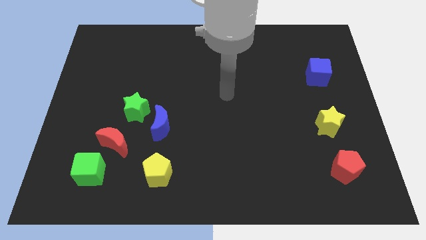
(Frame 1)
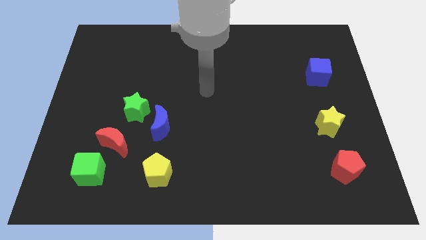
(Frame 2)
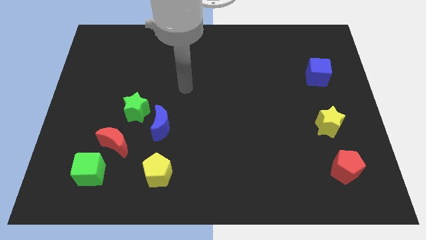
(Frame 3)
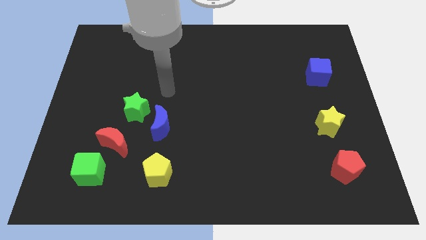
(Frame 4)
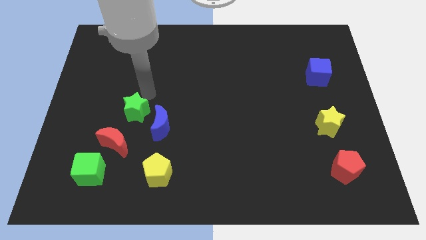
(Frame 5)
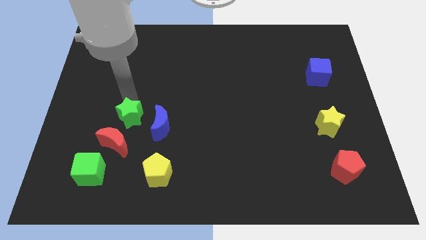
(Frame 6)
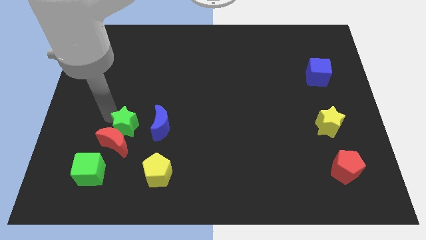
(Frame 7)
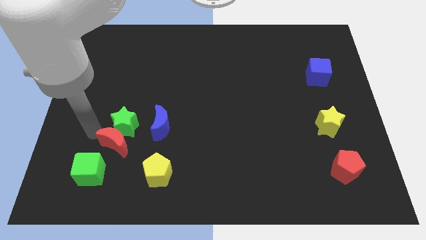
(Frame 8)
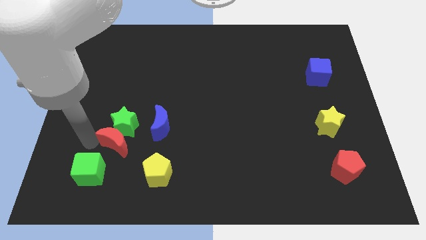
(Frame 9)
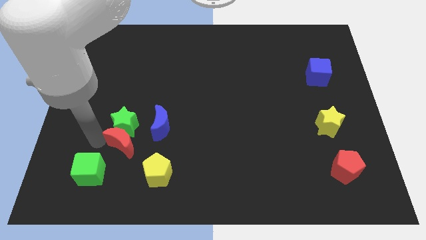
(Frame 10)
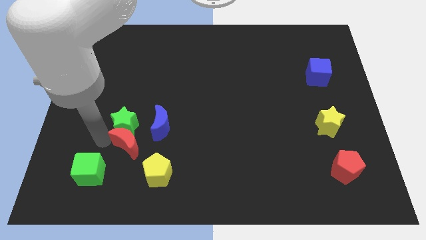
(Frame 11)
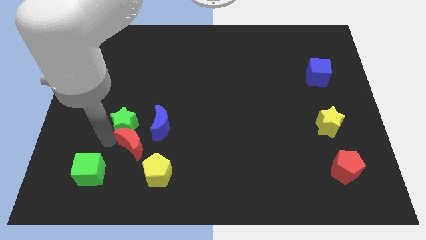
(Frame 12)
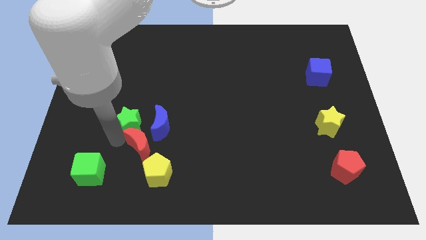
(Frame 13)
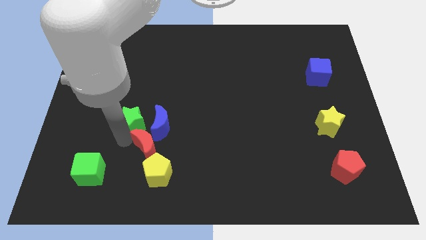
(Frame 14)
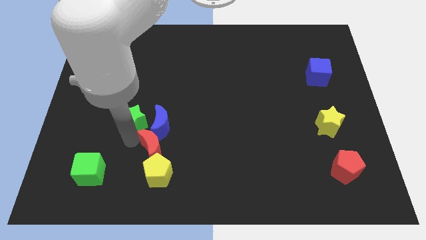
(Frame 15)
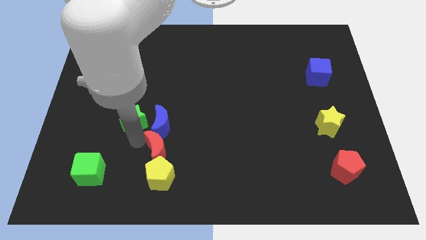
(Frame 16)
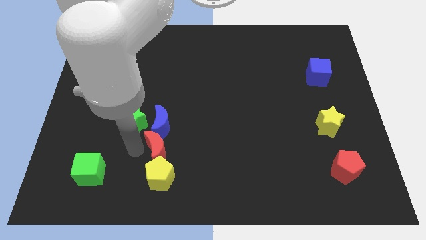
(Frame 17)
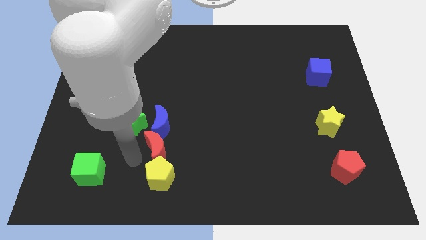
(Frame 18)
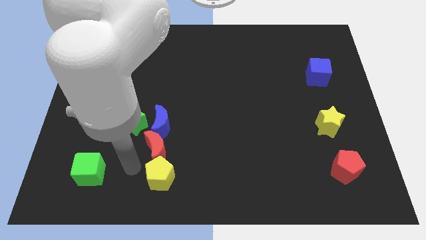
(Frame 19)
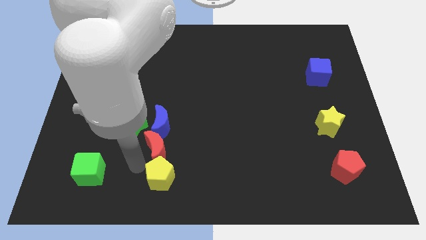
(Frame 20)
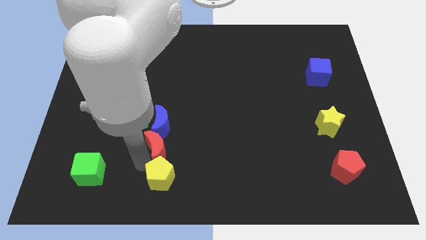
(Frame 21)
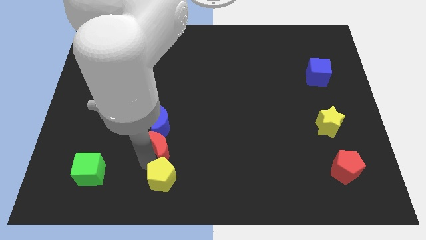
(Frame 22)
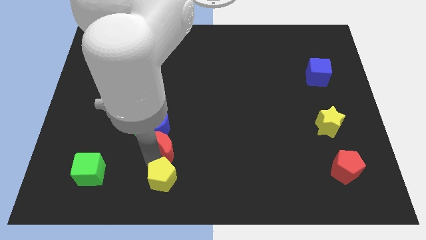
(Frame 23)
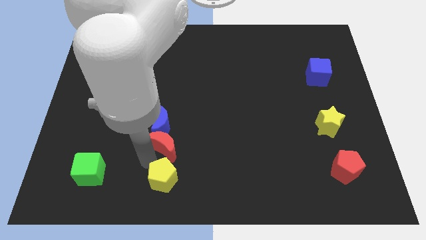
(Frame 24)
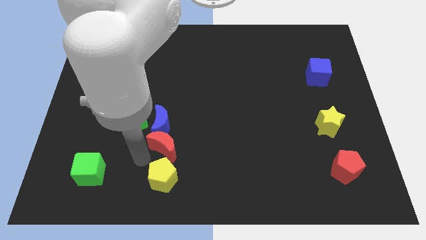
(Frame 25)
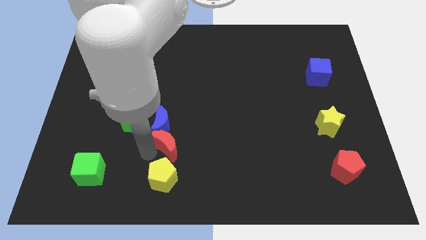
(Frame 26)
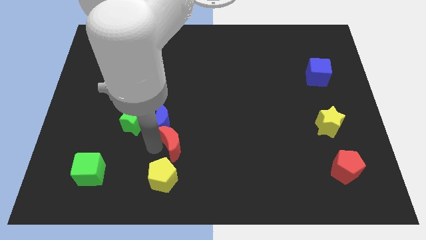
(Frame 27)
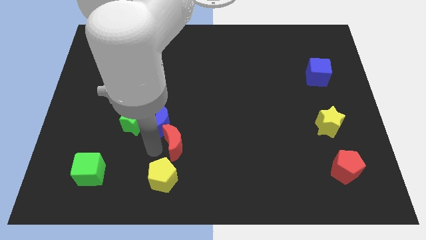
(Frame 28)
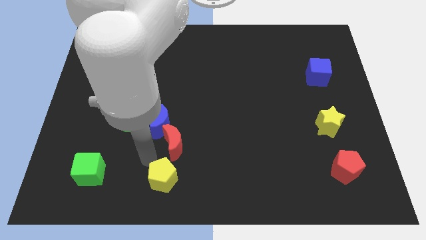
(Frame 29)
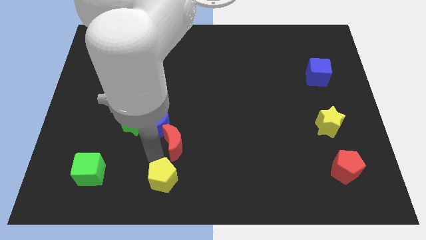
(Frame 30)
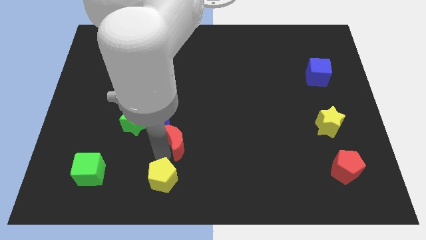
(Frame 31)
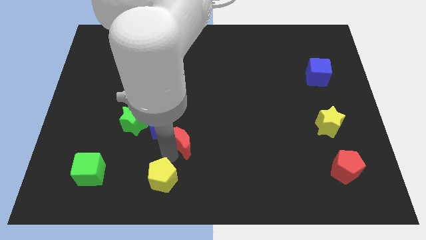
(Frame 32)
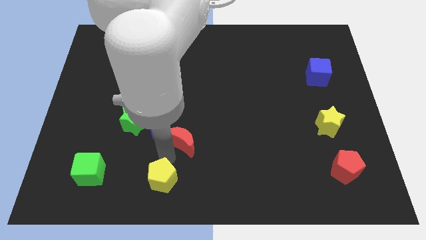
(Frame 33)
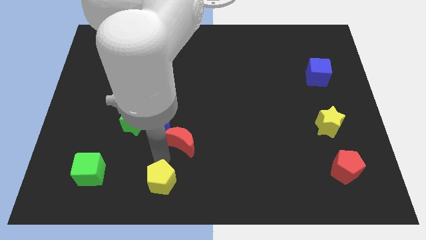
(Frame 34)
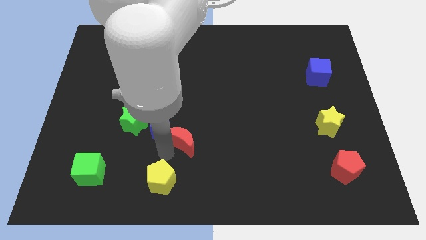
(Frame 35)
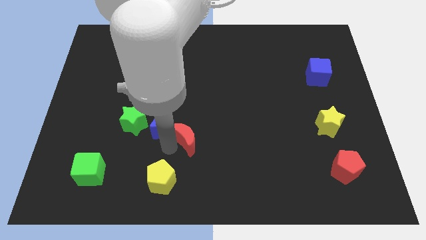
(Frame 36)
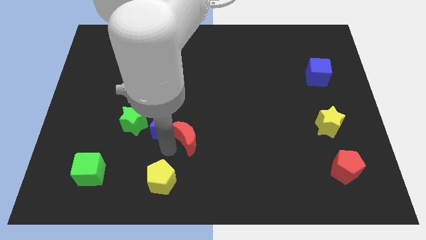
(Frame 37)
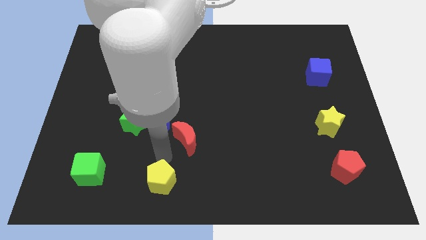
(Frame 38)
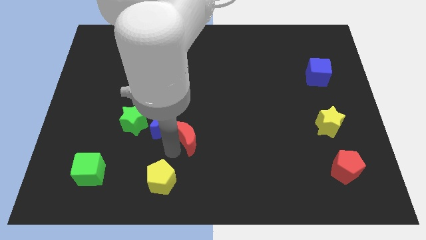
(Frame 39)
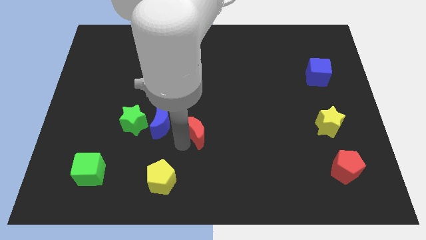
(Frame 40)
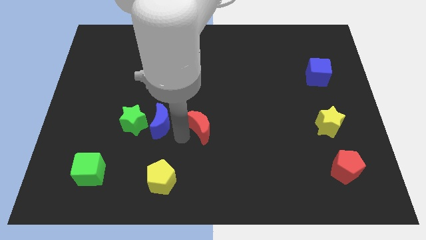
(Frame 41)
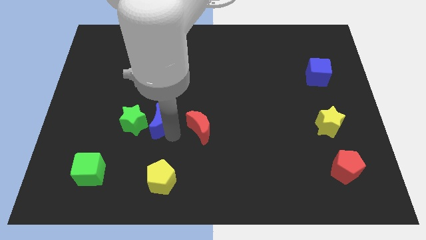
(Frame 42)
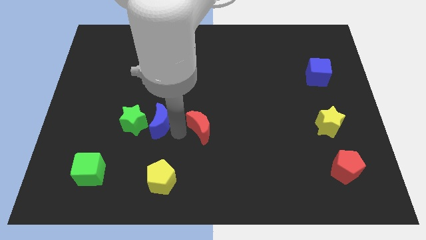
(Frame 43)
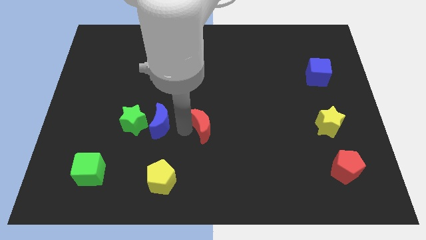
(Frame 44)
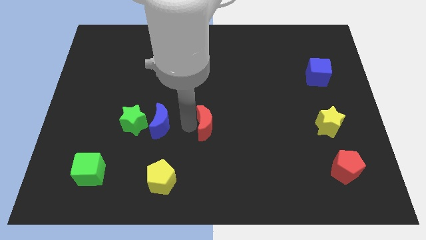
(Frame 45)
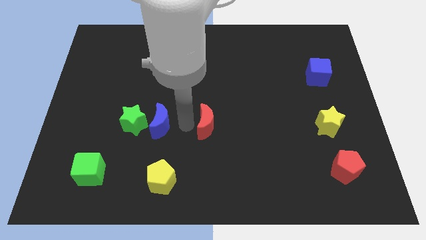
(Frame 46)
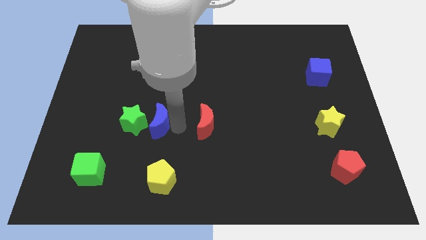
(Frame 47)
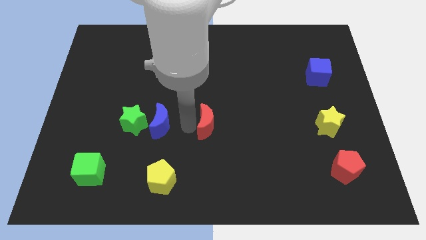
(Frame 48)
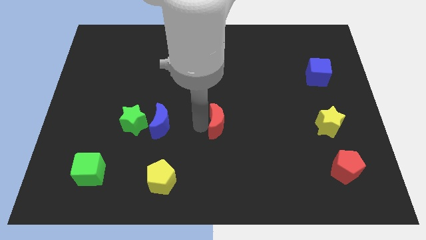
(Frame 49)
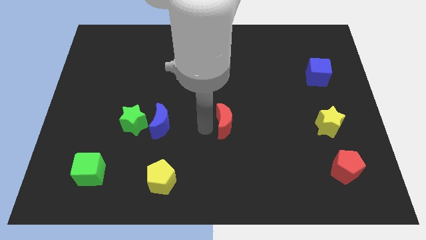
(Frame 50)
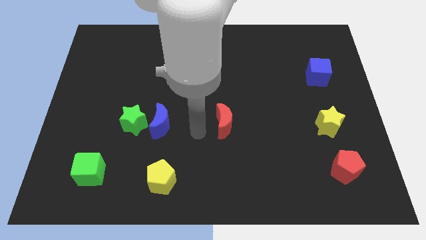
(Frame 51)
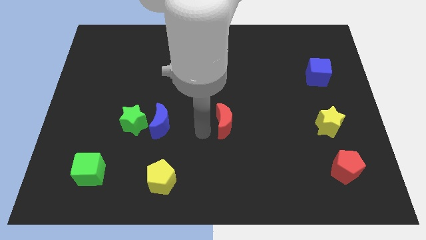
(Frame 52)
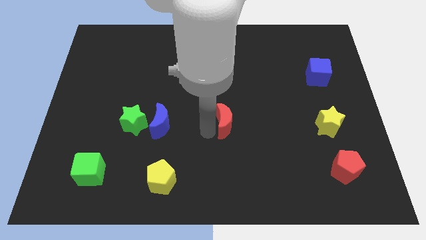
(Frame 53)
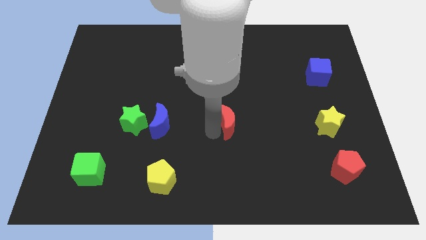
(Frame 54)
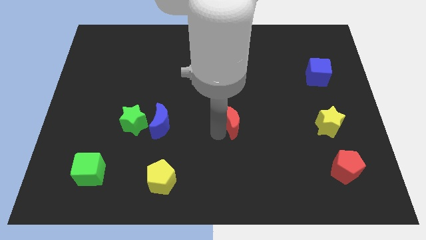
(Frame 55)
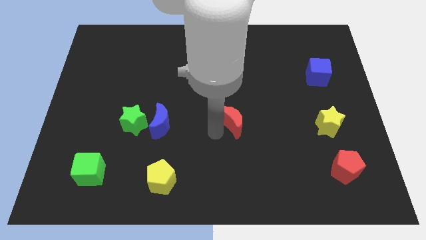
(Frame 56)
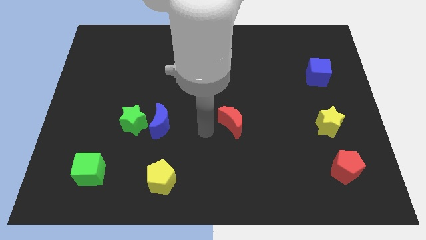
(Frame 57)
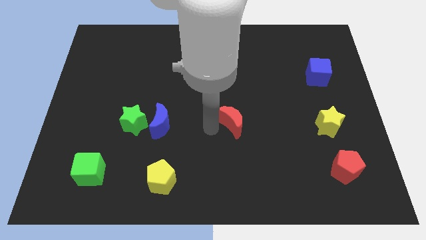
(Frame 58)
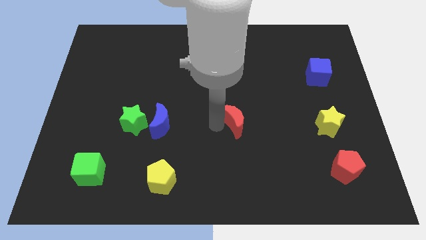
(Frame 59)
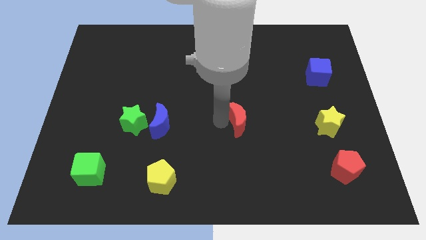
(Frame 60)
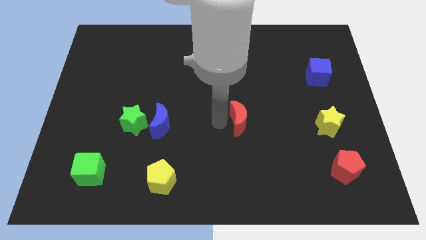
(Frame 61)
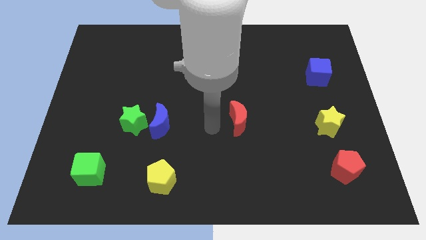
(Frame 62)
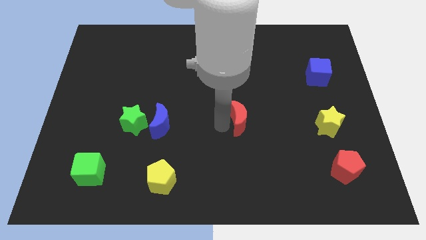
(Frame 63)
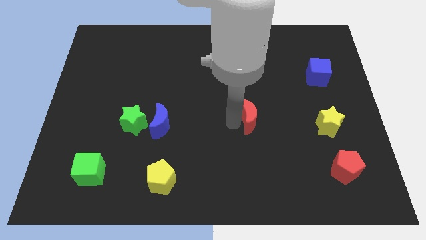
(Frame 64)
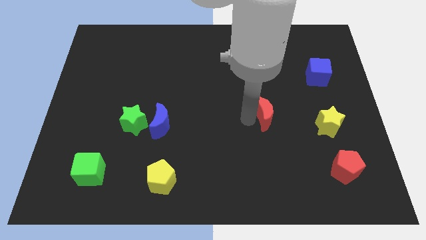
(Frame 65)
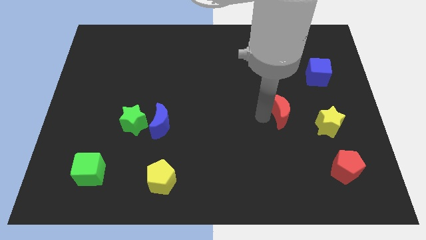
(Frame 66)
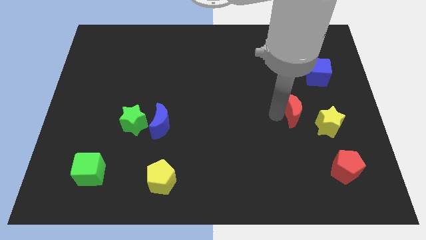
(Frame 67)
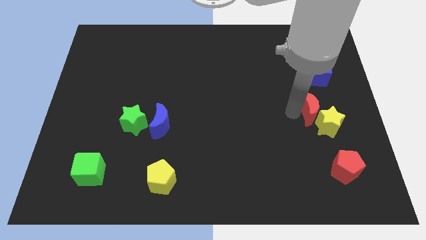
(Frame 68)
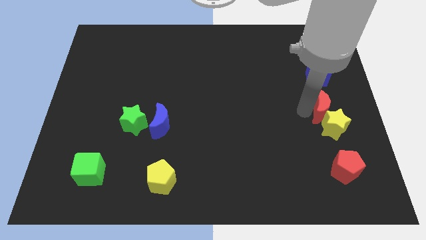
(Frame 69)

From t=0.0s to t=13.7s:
move the red moon to the top of the red pentagon

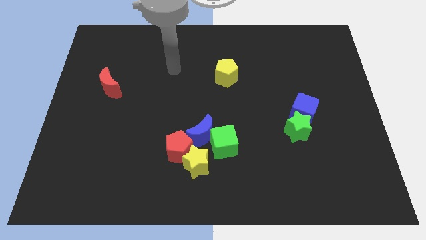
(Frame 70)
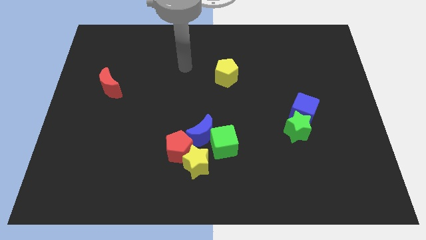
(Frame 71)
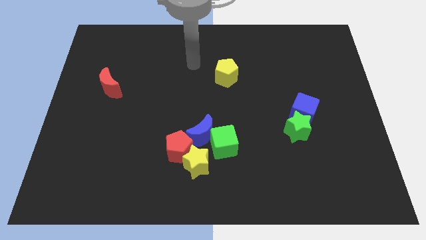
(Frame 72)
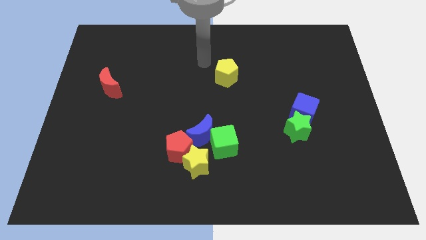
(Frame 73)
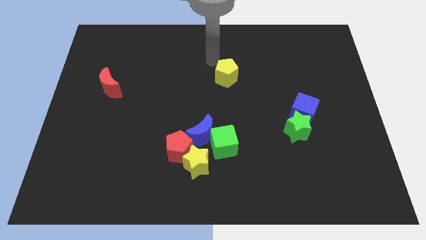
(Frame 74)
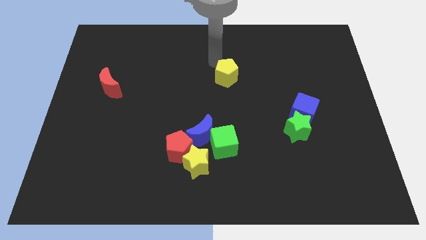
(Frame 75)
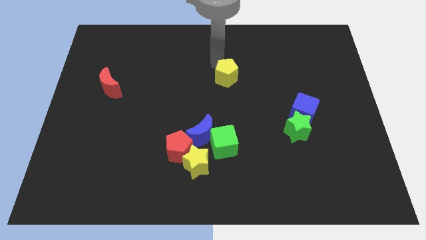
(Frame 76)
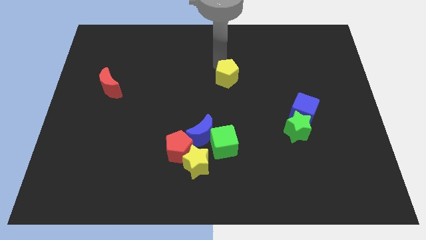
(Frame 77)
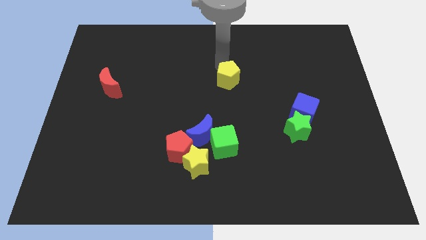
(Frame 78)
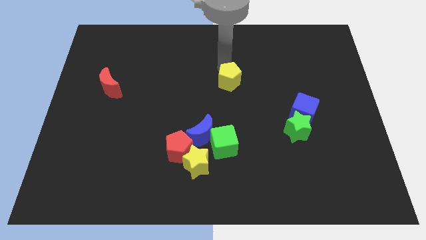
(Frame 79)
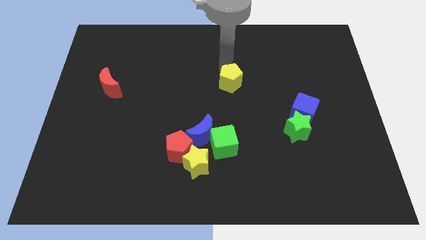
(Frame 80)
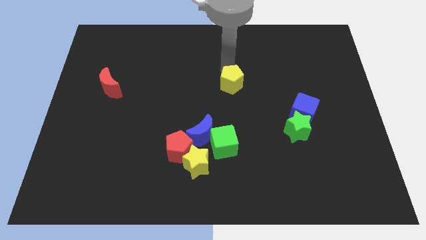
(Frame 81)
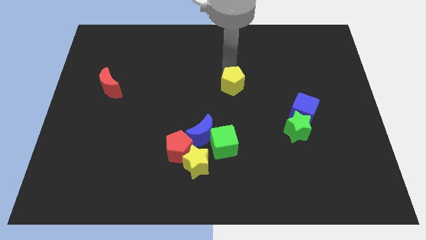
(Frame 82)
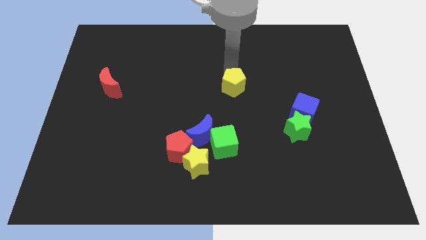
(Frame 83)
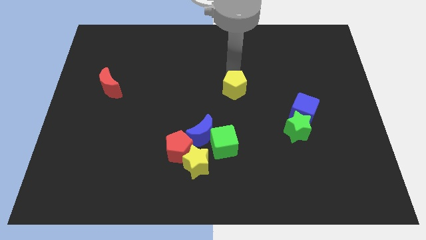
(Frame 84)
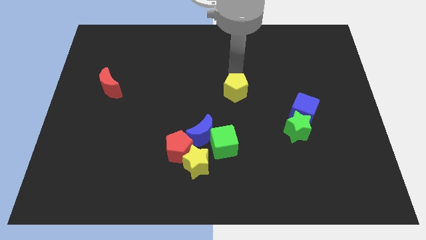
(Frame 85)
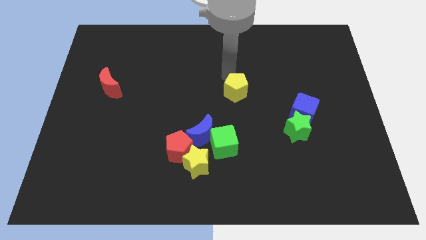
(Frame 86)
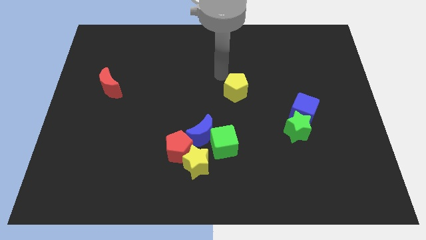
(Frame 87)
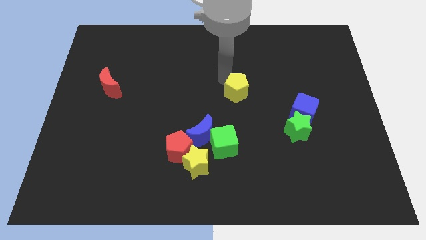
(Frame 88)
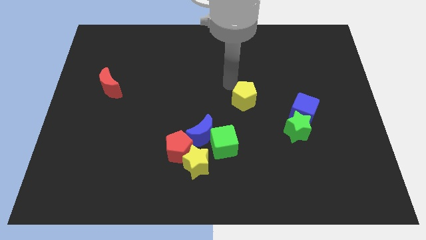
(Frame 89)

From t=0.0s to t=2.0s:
put the yellow pentagon to the left side of the blue cube
